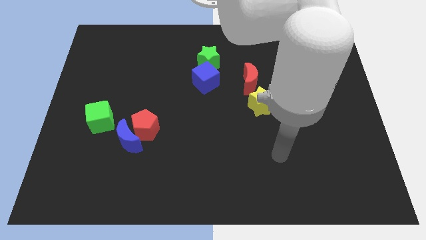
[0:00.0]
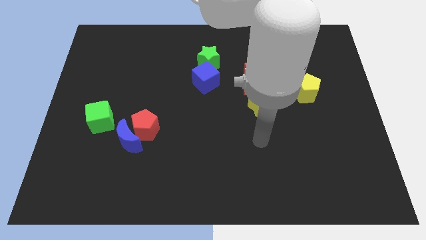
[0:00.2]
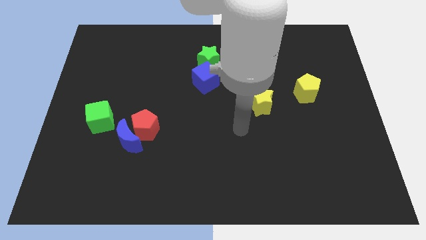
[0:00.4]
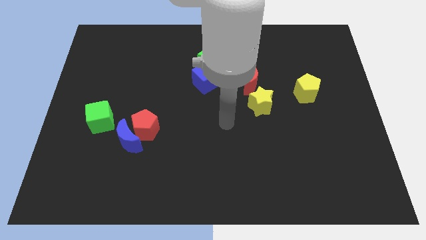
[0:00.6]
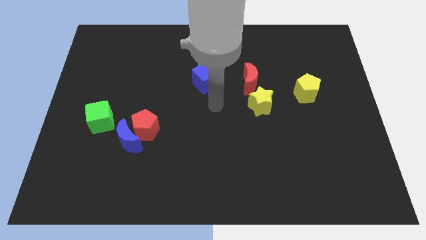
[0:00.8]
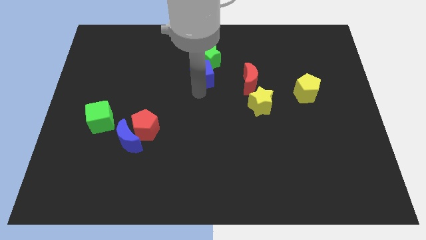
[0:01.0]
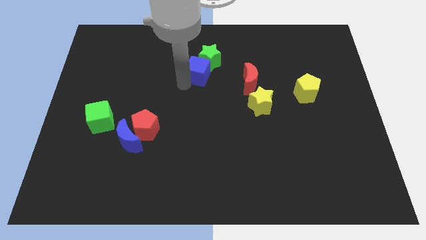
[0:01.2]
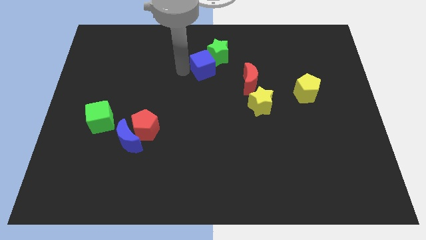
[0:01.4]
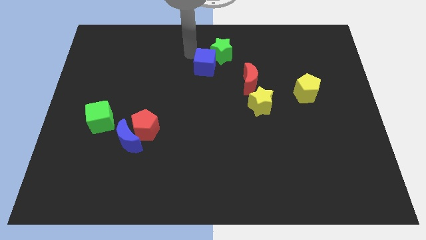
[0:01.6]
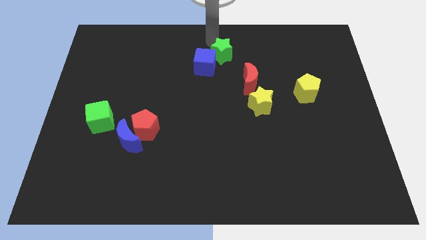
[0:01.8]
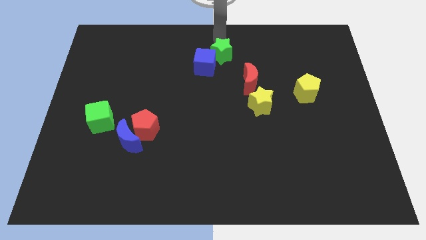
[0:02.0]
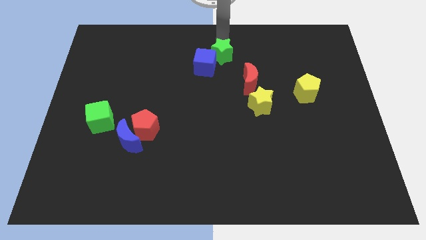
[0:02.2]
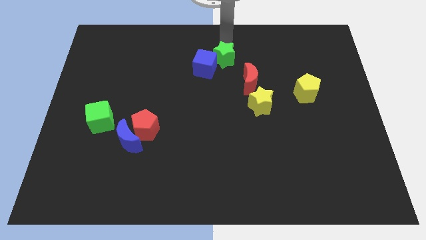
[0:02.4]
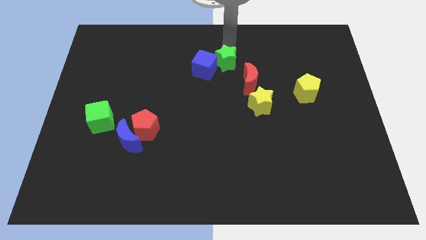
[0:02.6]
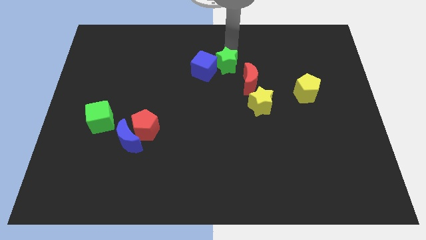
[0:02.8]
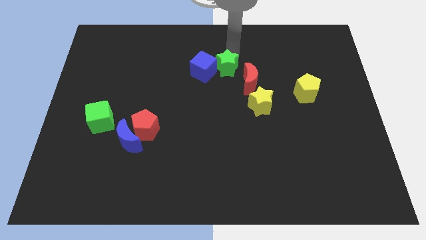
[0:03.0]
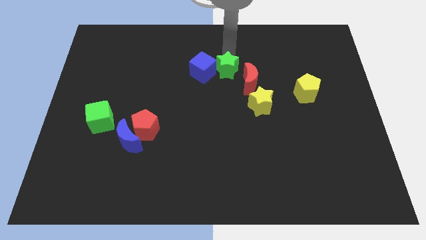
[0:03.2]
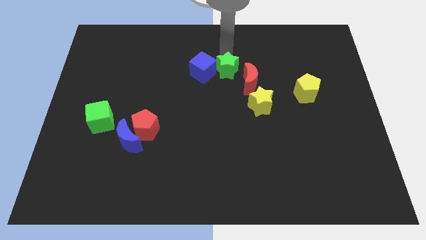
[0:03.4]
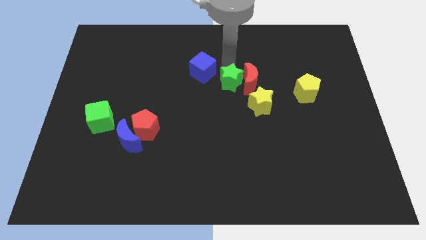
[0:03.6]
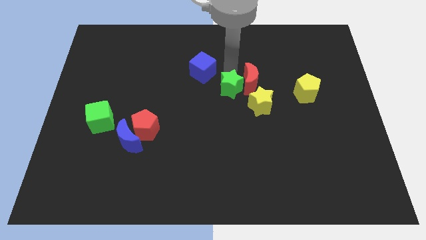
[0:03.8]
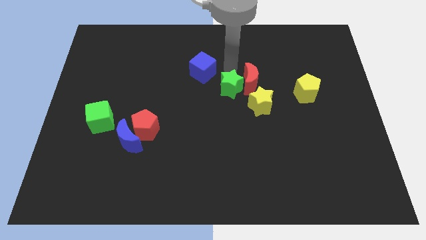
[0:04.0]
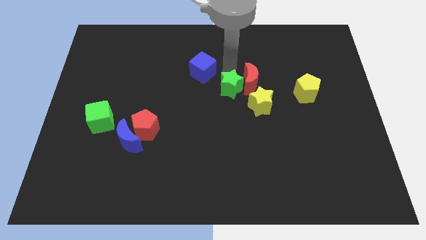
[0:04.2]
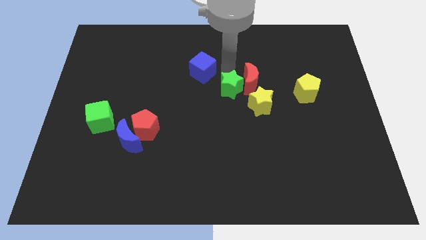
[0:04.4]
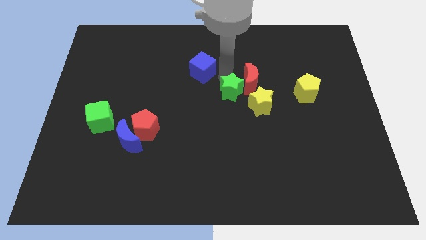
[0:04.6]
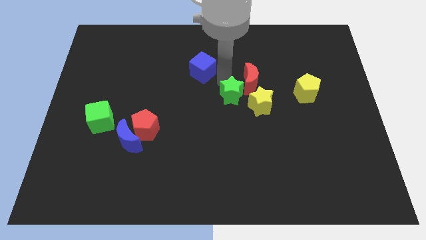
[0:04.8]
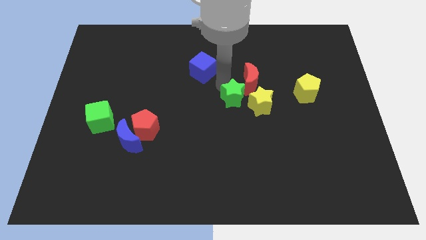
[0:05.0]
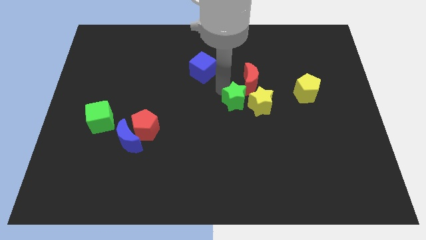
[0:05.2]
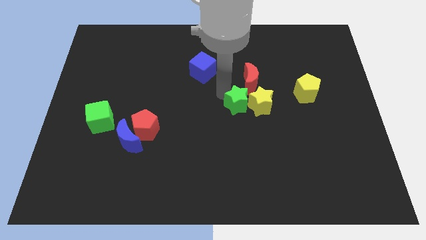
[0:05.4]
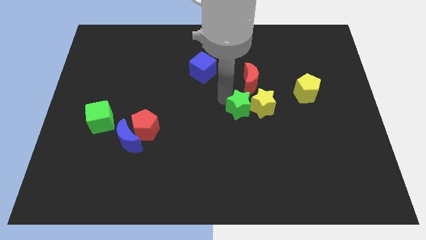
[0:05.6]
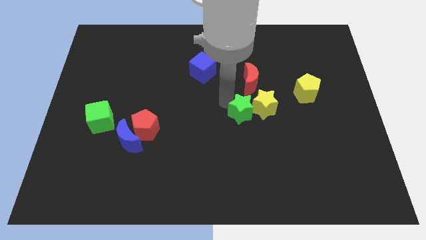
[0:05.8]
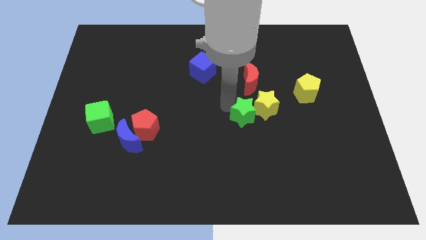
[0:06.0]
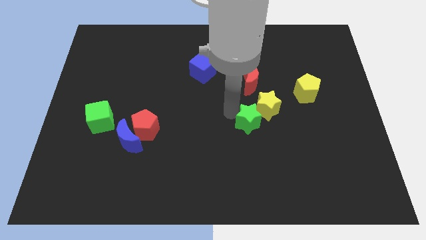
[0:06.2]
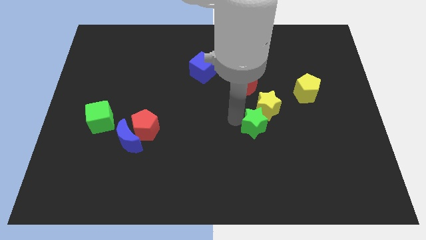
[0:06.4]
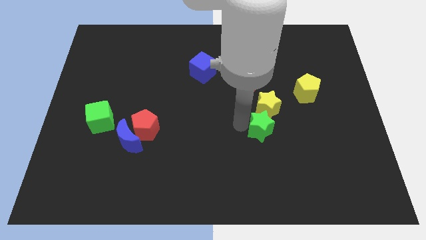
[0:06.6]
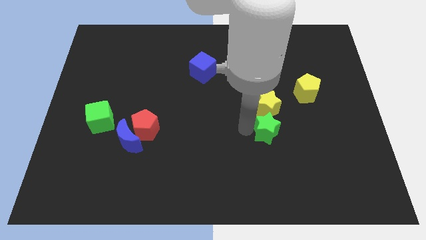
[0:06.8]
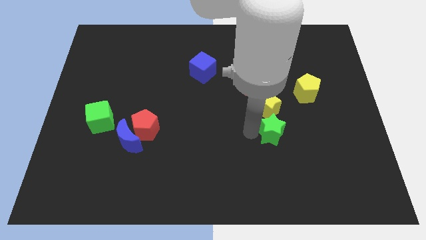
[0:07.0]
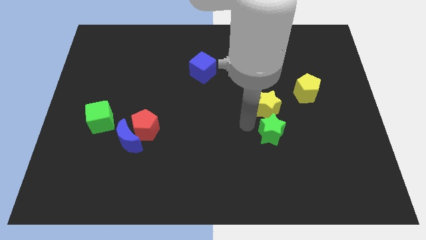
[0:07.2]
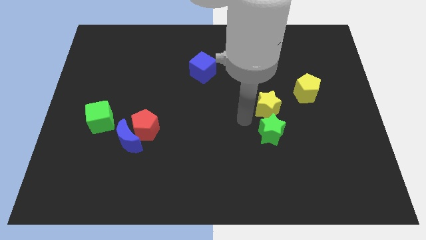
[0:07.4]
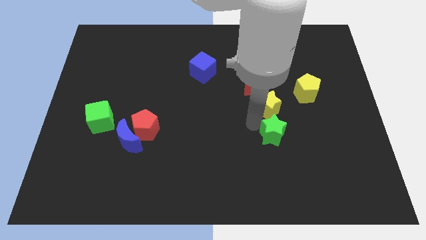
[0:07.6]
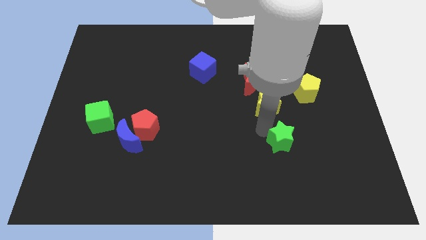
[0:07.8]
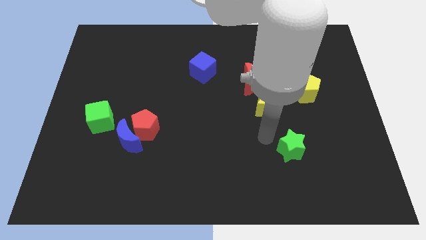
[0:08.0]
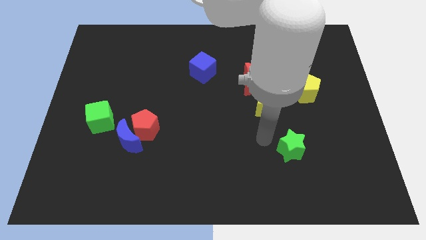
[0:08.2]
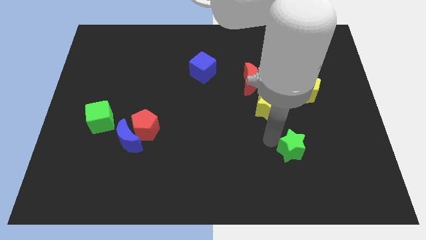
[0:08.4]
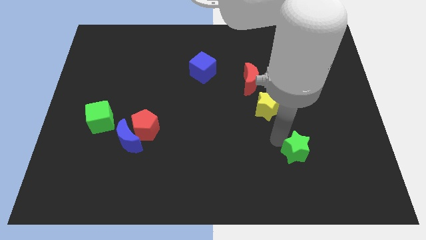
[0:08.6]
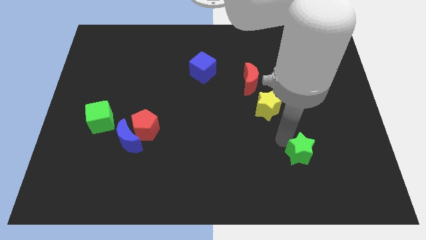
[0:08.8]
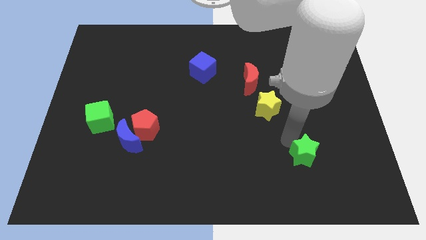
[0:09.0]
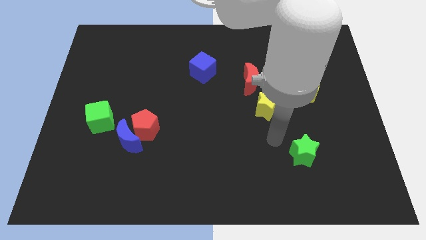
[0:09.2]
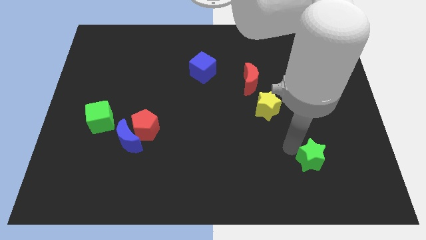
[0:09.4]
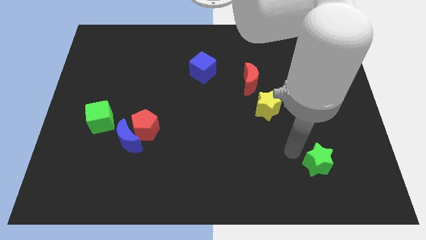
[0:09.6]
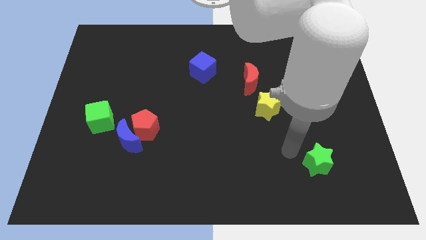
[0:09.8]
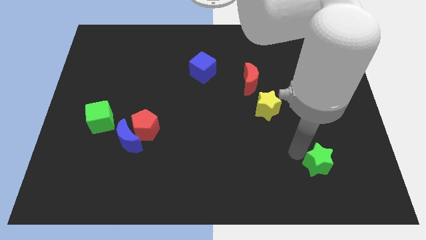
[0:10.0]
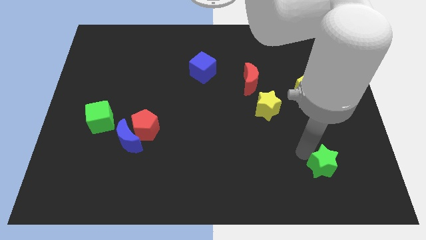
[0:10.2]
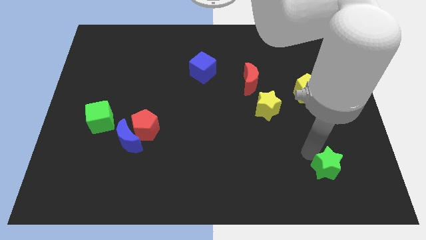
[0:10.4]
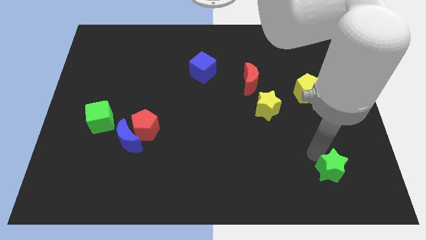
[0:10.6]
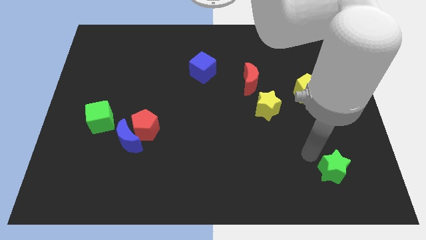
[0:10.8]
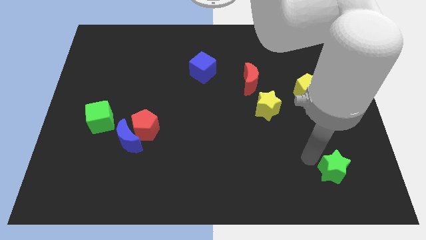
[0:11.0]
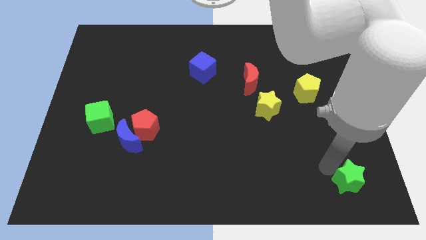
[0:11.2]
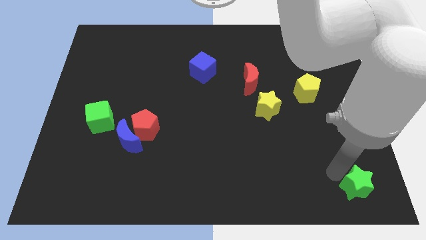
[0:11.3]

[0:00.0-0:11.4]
slide the green star to the lower right corner

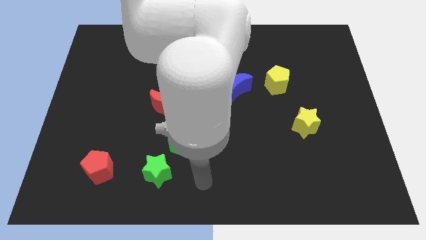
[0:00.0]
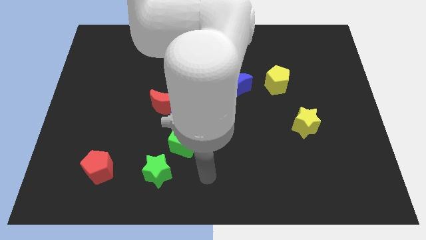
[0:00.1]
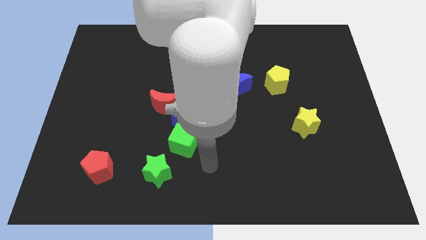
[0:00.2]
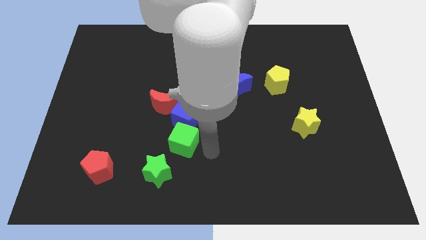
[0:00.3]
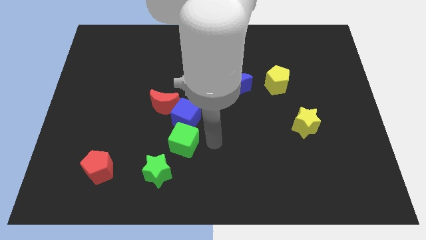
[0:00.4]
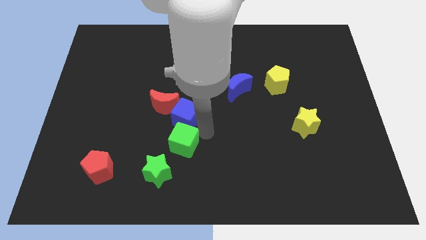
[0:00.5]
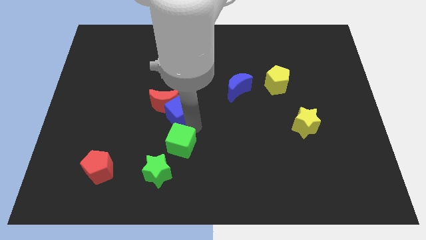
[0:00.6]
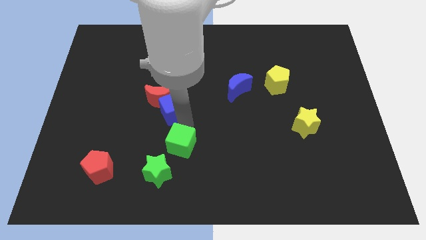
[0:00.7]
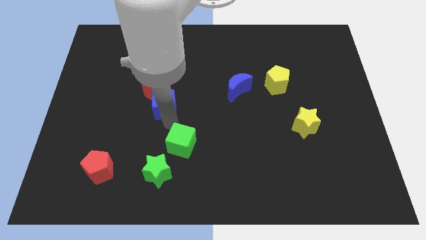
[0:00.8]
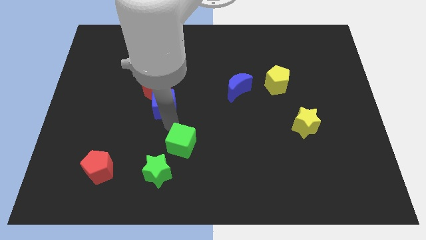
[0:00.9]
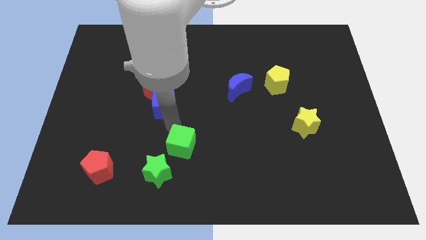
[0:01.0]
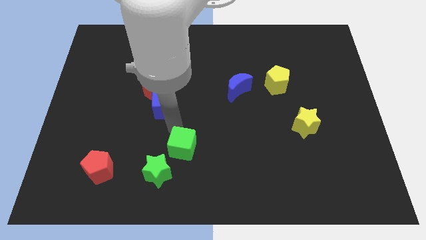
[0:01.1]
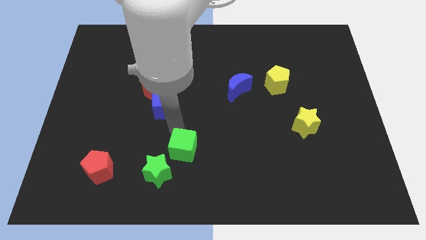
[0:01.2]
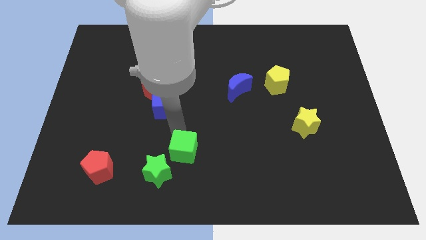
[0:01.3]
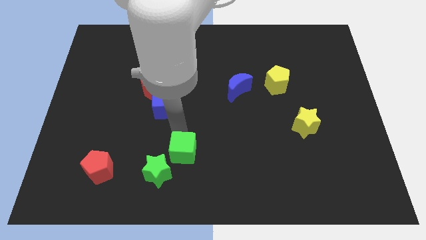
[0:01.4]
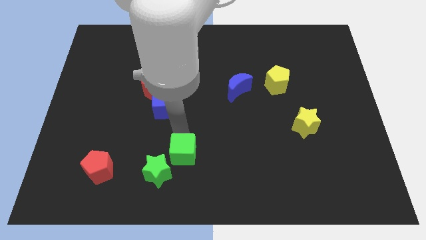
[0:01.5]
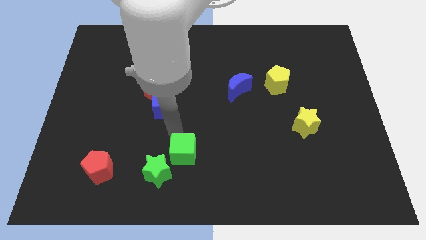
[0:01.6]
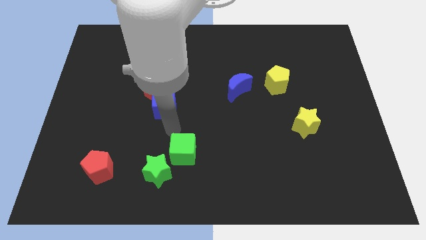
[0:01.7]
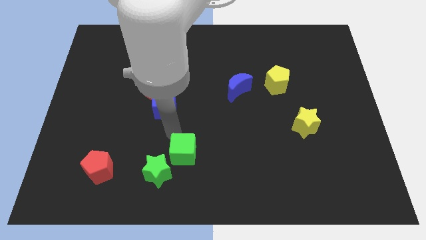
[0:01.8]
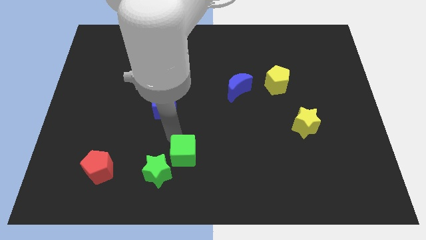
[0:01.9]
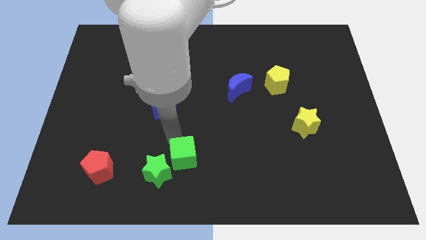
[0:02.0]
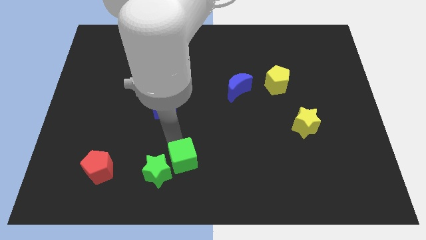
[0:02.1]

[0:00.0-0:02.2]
move the green cube to the bottom side
